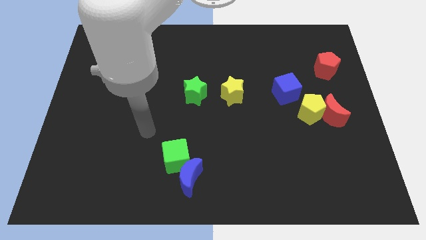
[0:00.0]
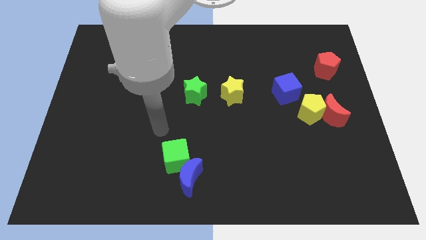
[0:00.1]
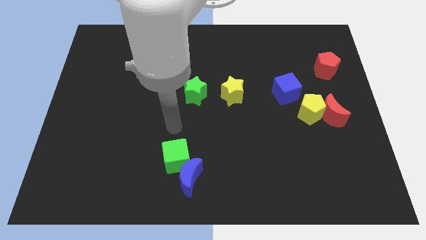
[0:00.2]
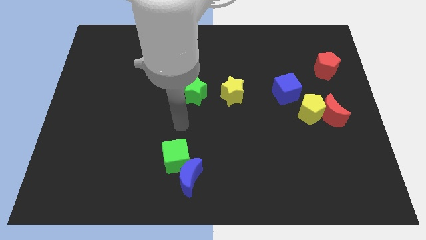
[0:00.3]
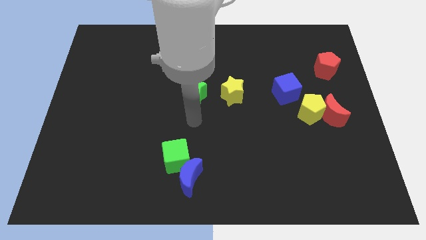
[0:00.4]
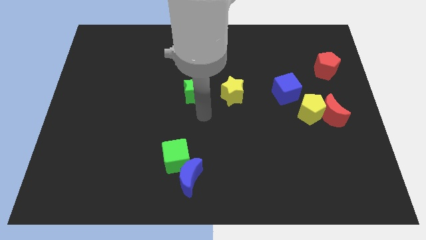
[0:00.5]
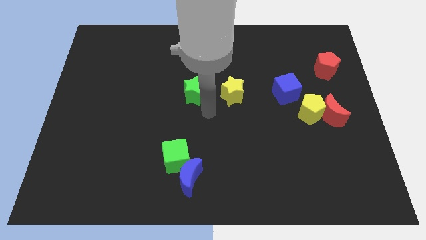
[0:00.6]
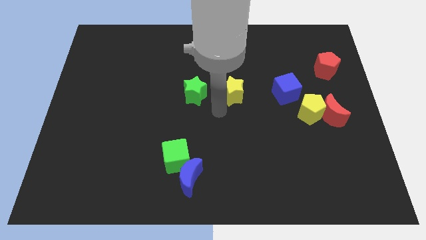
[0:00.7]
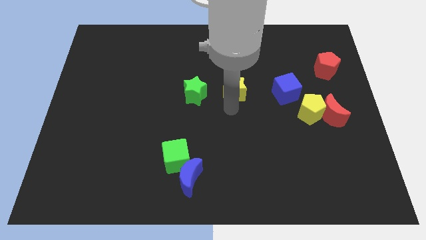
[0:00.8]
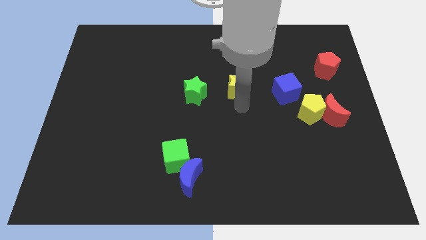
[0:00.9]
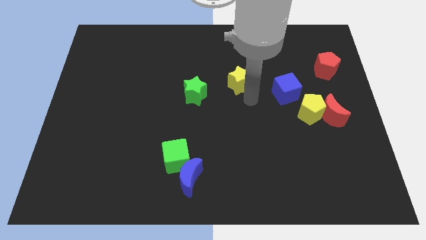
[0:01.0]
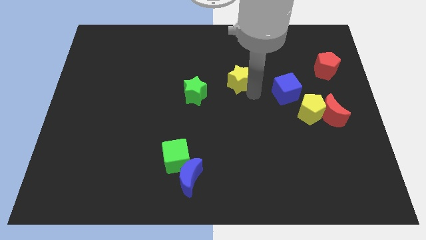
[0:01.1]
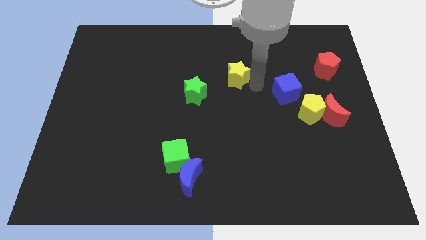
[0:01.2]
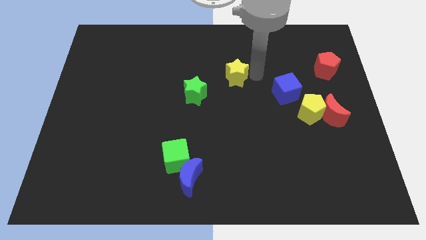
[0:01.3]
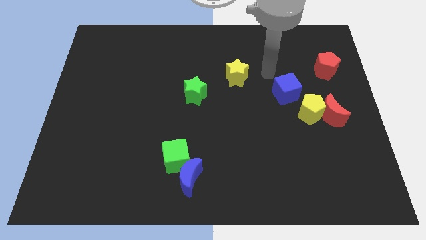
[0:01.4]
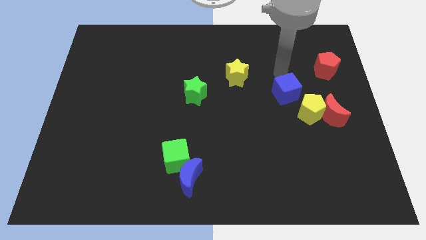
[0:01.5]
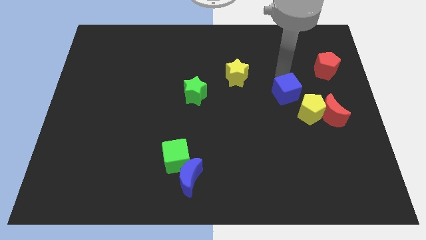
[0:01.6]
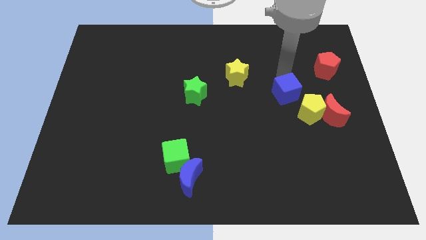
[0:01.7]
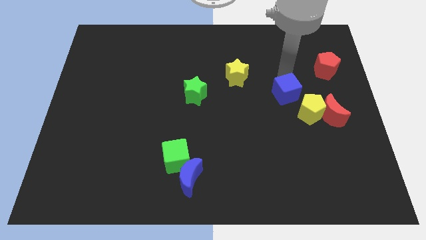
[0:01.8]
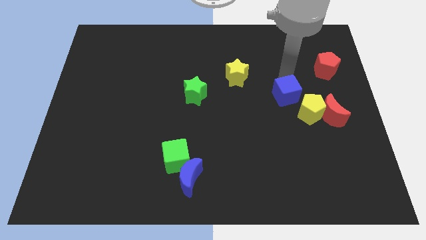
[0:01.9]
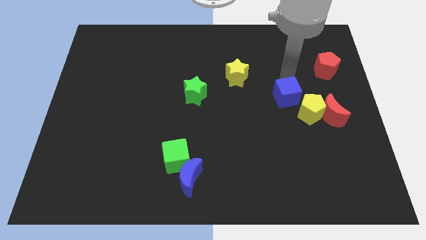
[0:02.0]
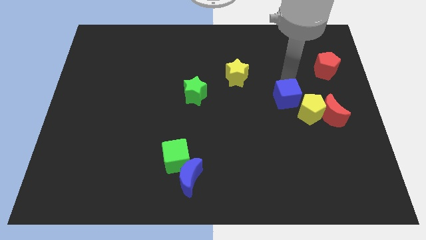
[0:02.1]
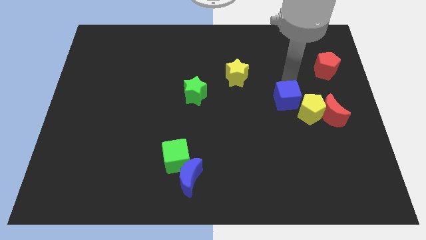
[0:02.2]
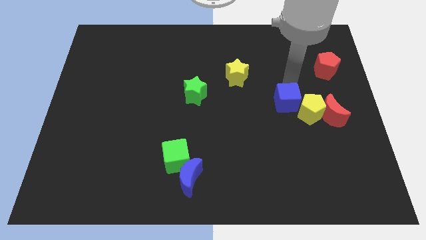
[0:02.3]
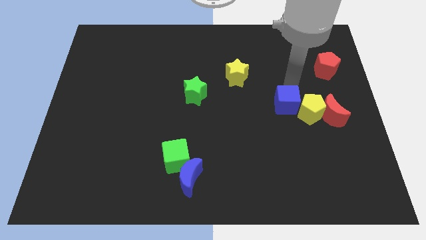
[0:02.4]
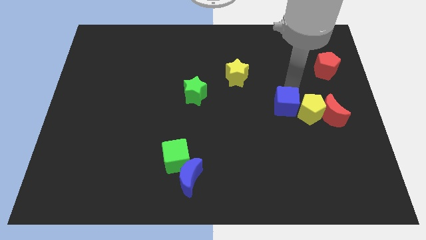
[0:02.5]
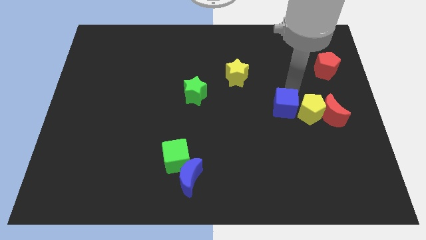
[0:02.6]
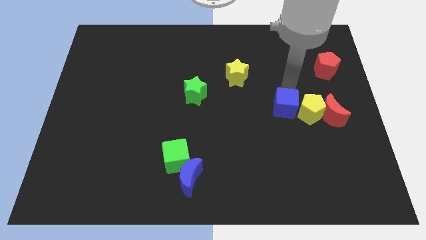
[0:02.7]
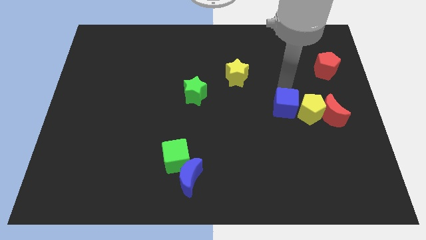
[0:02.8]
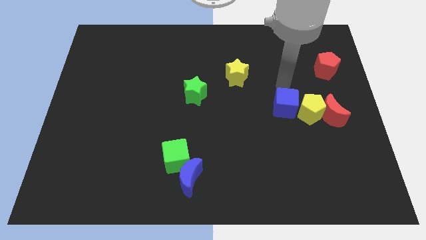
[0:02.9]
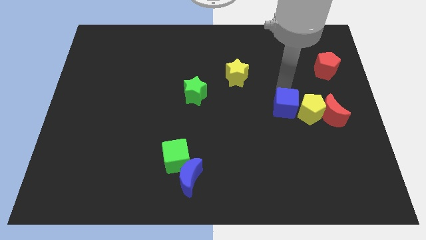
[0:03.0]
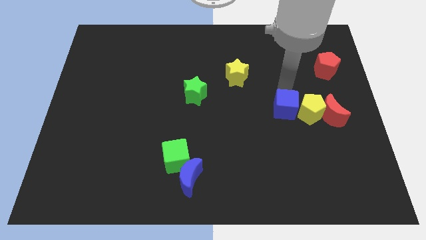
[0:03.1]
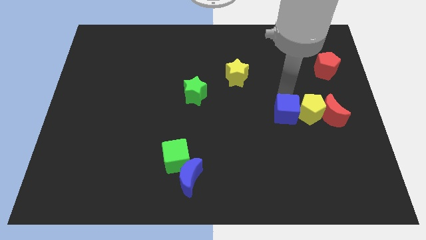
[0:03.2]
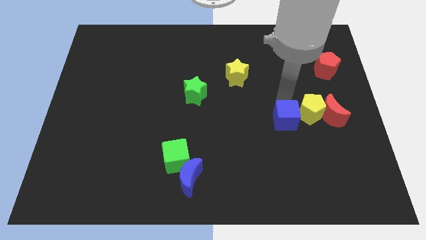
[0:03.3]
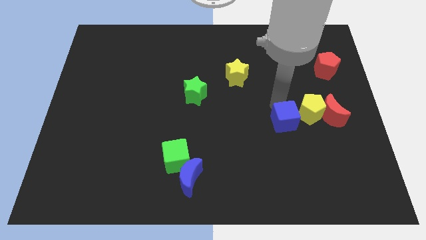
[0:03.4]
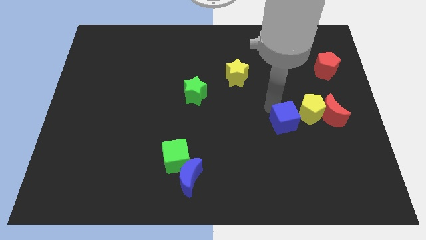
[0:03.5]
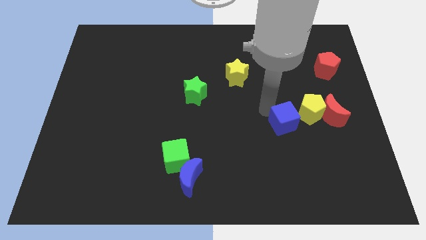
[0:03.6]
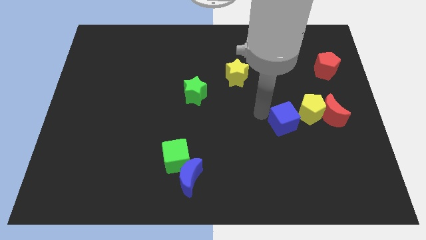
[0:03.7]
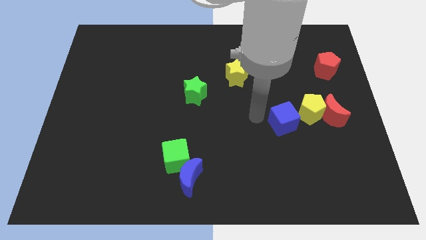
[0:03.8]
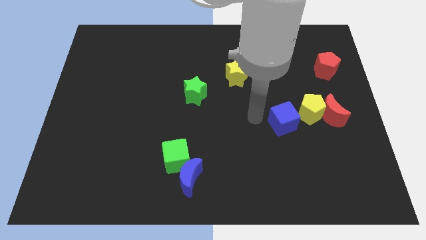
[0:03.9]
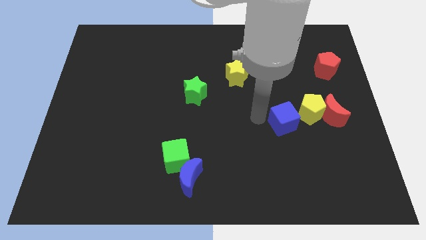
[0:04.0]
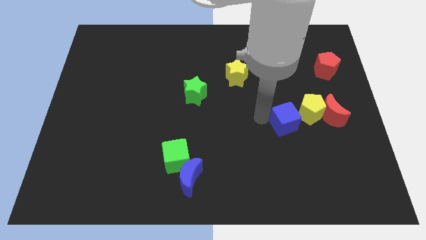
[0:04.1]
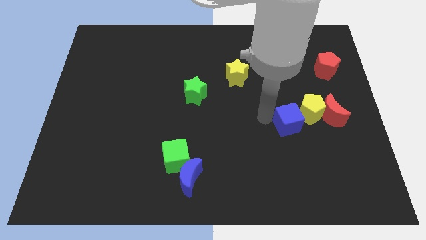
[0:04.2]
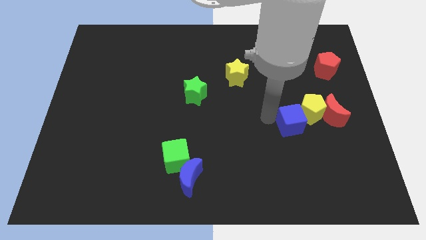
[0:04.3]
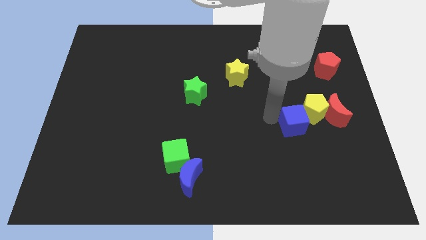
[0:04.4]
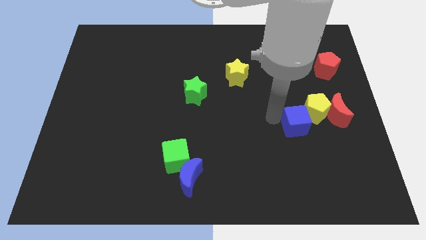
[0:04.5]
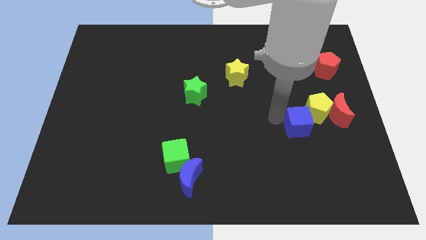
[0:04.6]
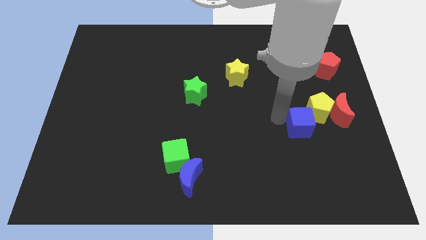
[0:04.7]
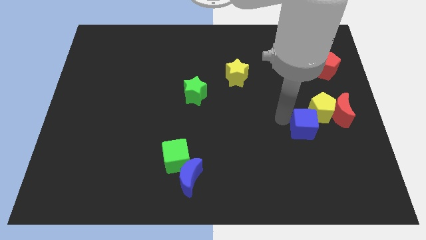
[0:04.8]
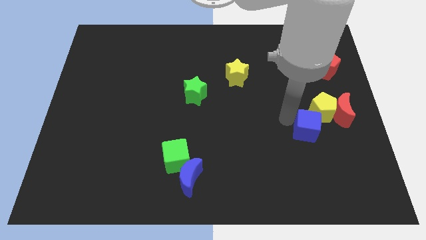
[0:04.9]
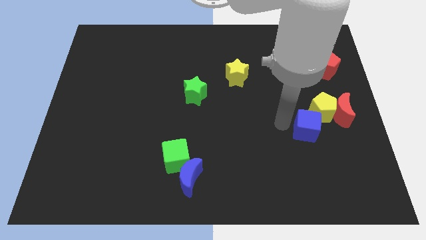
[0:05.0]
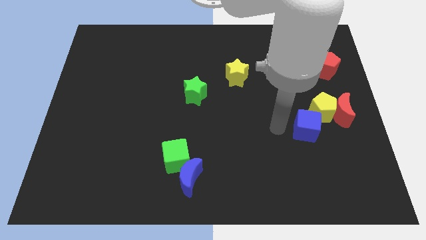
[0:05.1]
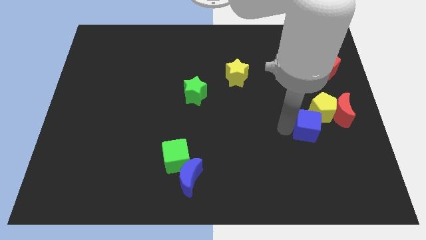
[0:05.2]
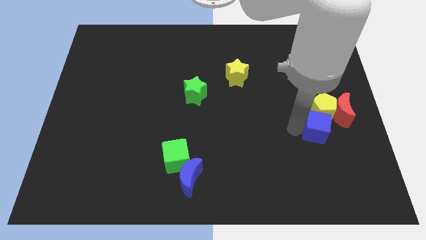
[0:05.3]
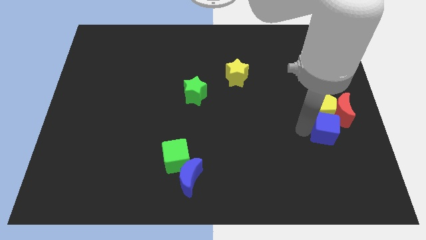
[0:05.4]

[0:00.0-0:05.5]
move the blue cube to the bottom right side of the yellow pentagon

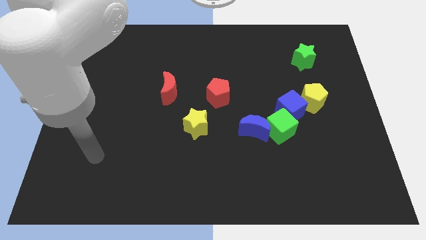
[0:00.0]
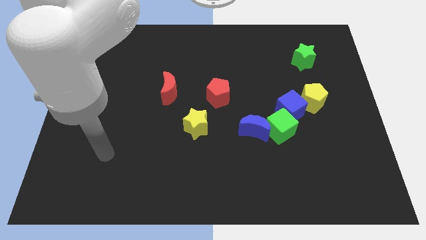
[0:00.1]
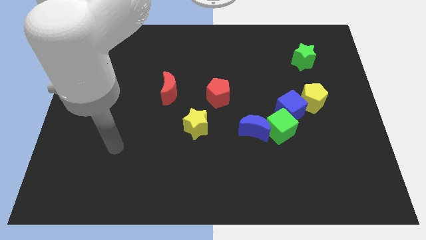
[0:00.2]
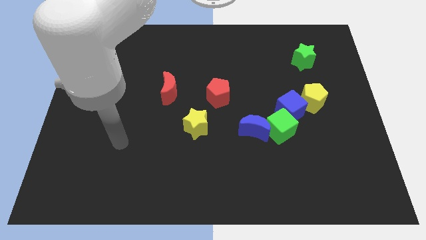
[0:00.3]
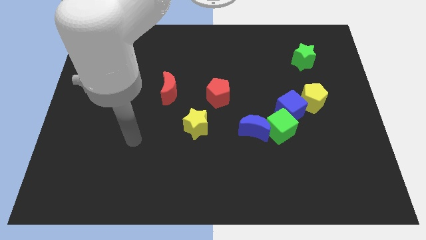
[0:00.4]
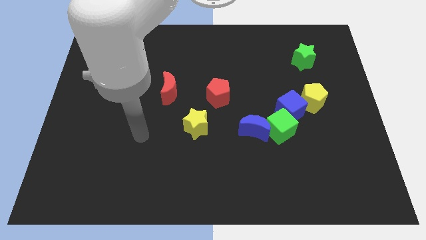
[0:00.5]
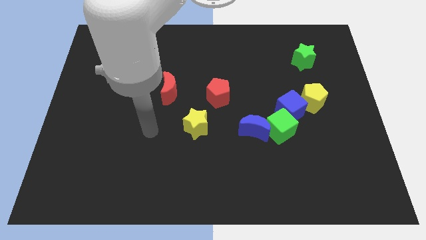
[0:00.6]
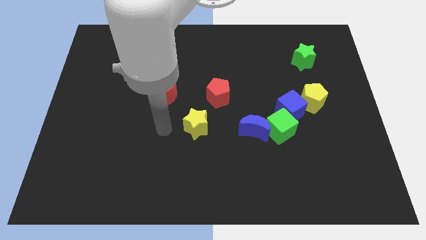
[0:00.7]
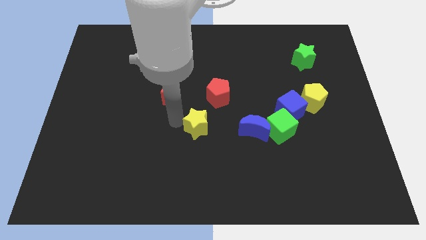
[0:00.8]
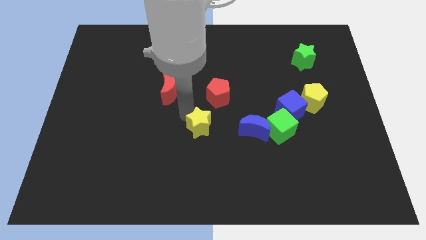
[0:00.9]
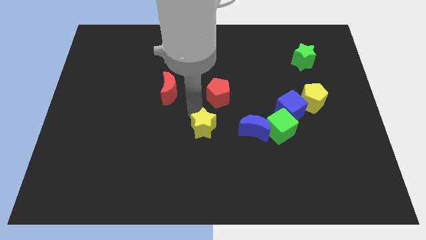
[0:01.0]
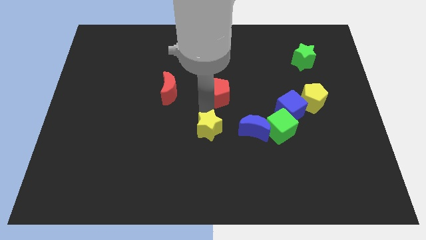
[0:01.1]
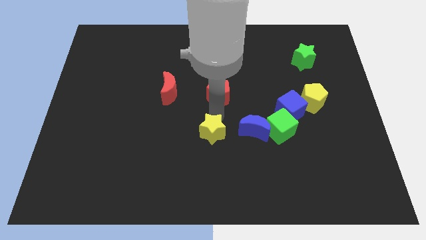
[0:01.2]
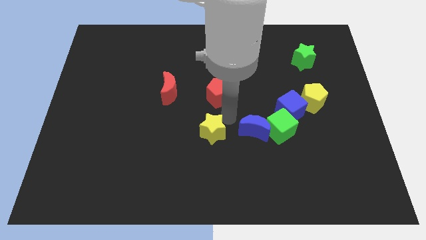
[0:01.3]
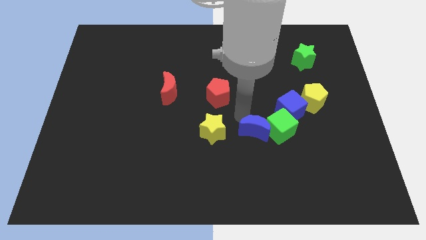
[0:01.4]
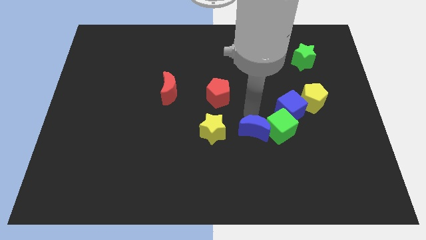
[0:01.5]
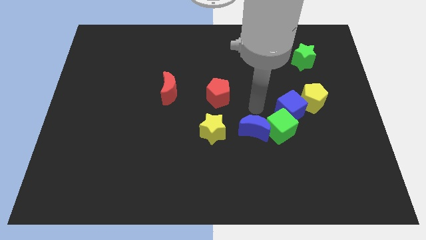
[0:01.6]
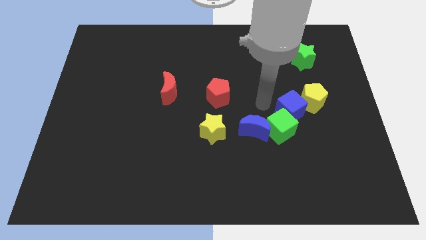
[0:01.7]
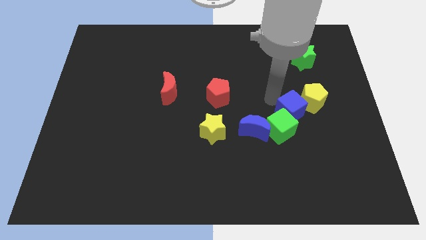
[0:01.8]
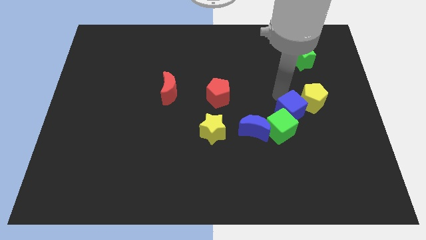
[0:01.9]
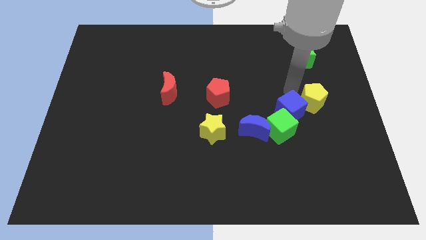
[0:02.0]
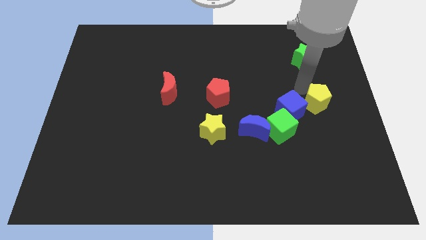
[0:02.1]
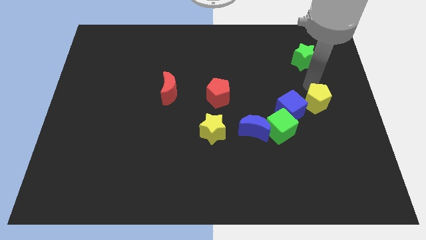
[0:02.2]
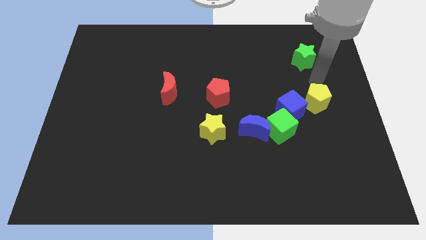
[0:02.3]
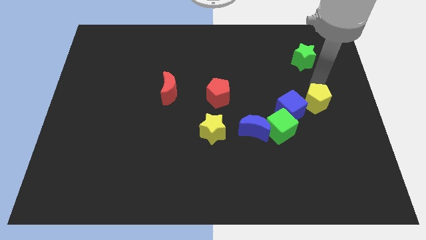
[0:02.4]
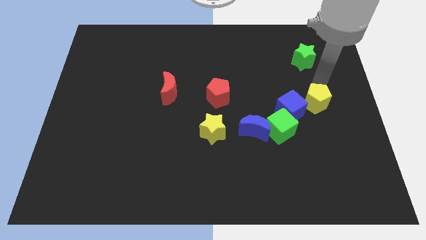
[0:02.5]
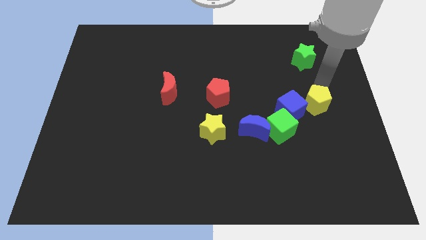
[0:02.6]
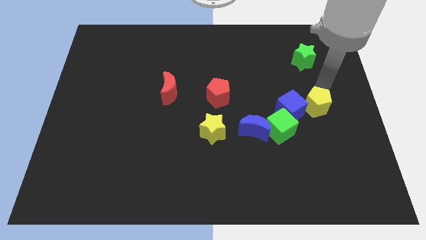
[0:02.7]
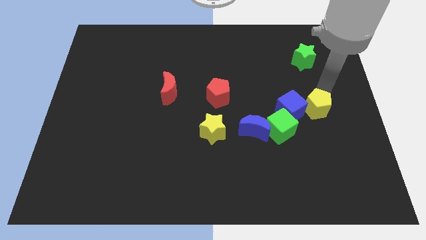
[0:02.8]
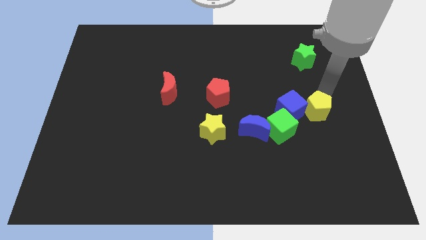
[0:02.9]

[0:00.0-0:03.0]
move the yellow pentagon to the bottom right side of the blue cube
